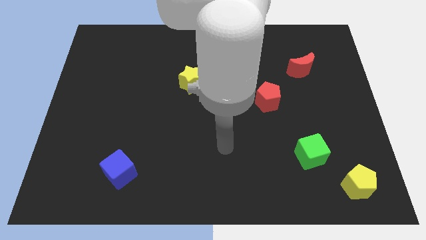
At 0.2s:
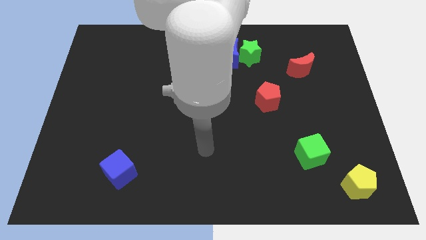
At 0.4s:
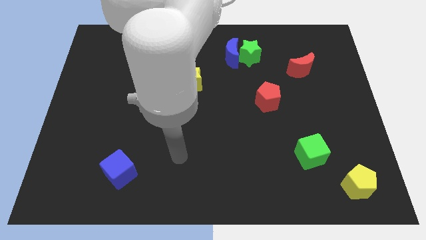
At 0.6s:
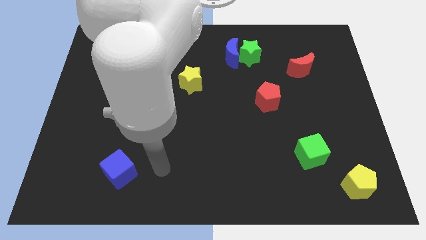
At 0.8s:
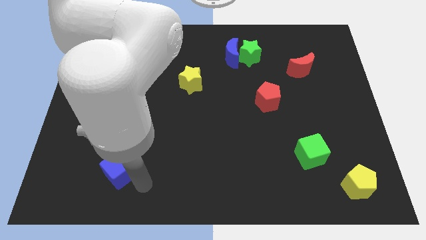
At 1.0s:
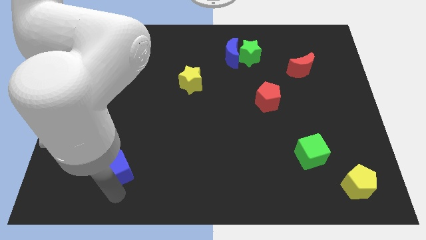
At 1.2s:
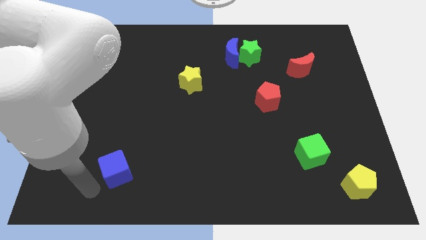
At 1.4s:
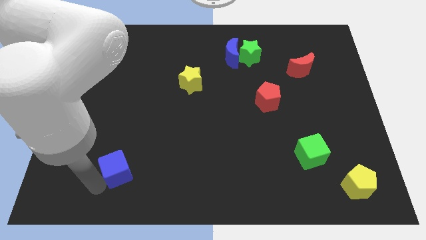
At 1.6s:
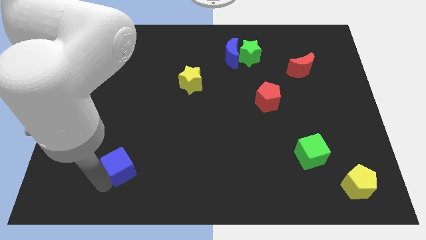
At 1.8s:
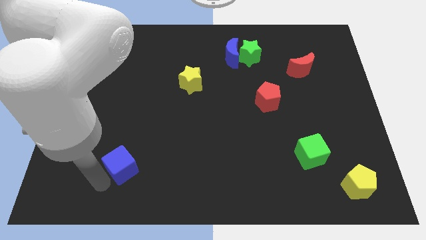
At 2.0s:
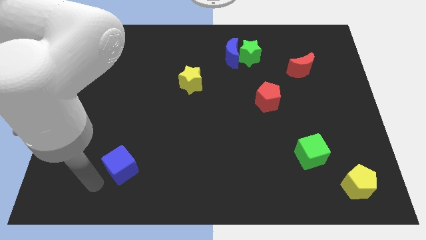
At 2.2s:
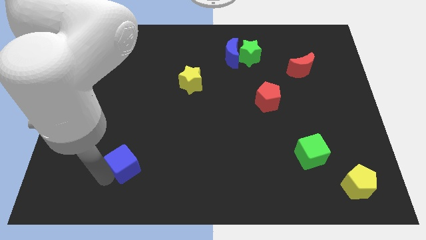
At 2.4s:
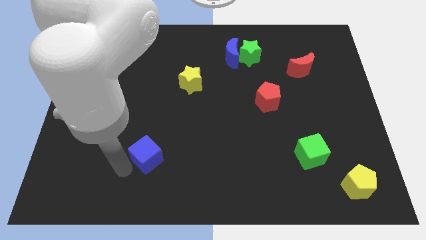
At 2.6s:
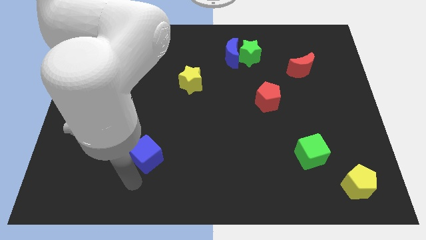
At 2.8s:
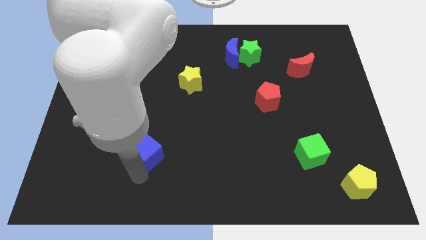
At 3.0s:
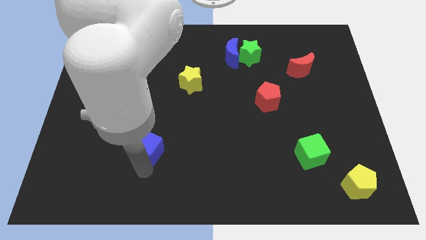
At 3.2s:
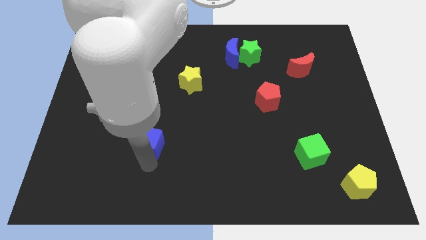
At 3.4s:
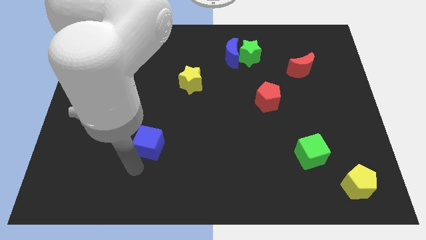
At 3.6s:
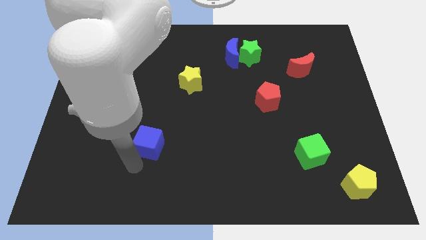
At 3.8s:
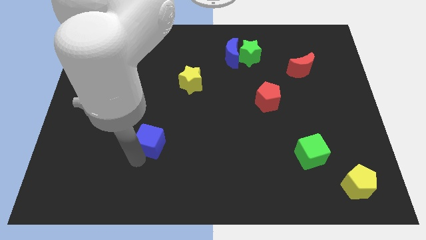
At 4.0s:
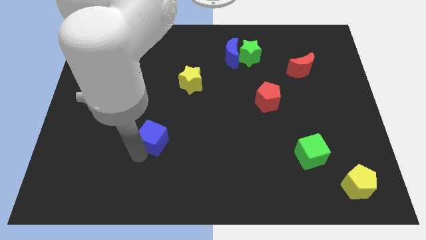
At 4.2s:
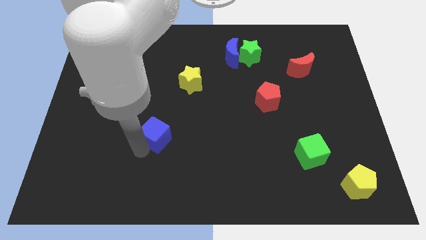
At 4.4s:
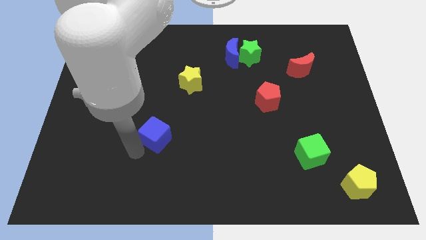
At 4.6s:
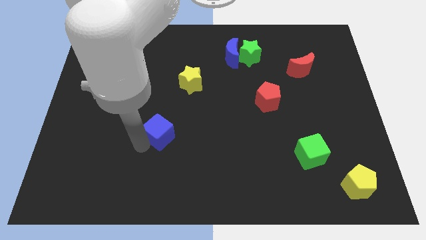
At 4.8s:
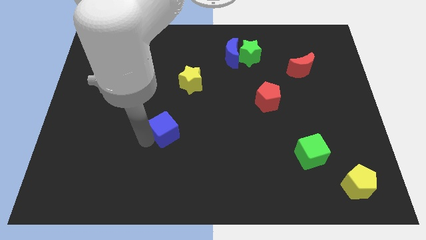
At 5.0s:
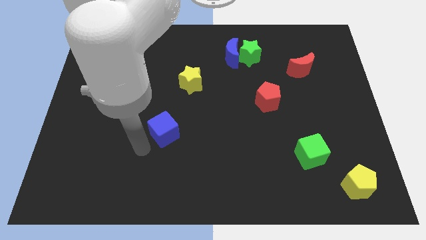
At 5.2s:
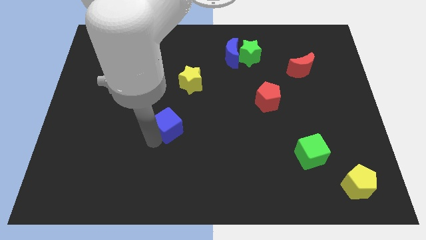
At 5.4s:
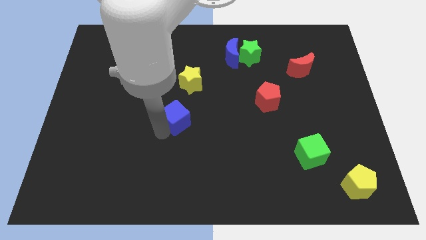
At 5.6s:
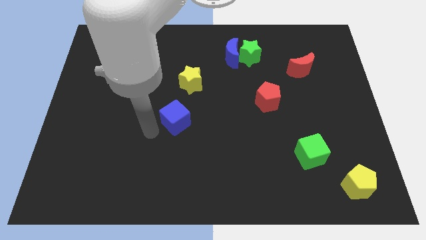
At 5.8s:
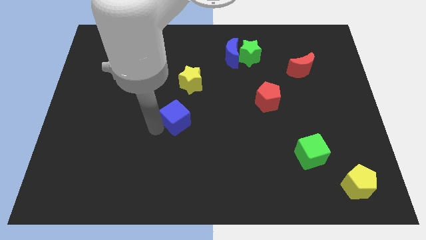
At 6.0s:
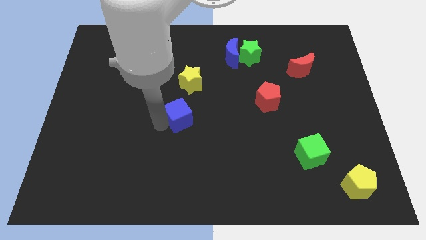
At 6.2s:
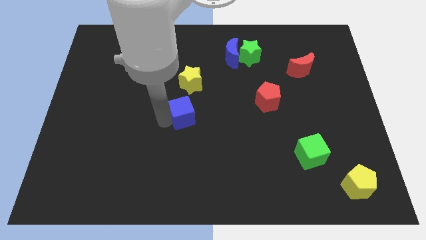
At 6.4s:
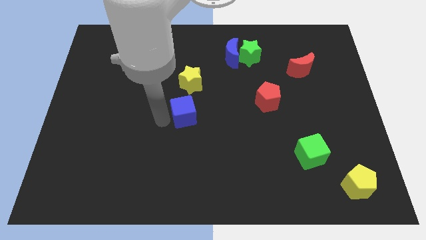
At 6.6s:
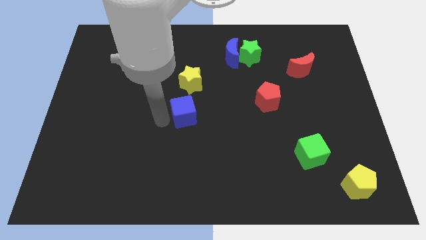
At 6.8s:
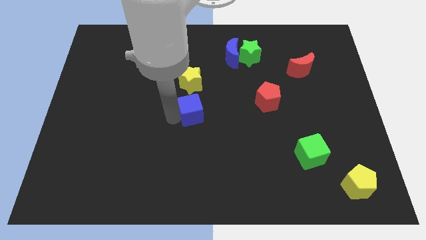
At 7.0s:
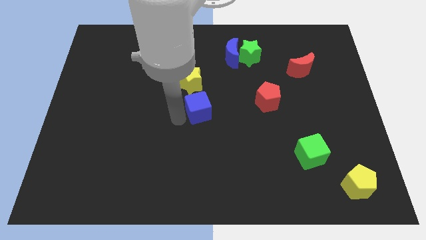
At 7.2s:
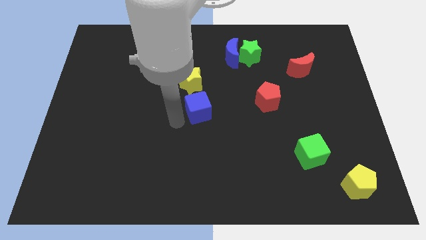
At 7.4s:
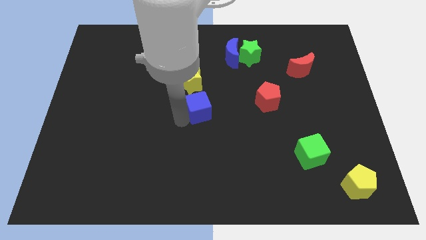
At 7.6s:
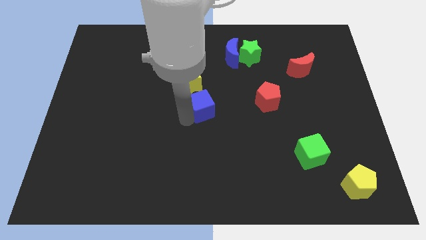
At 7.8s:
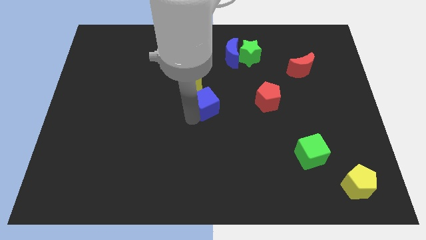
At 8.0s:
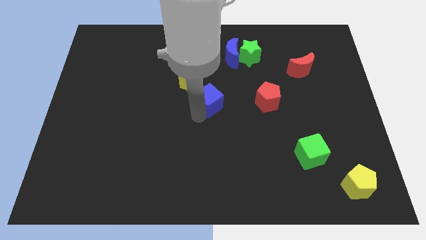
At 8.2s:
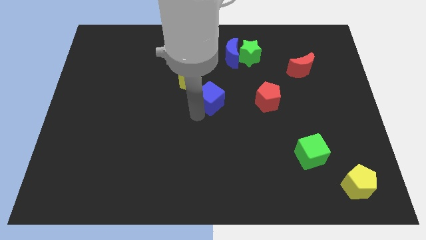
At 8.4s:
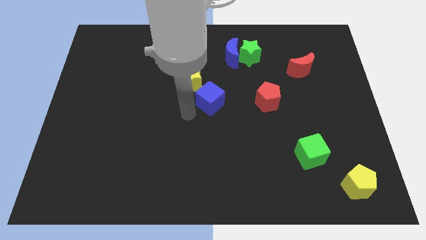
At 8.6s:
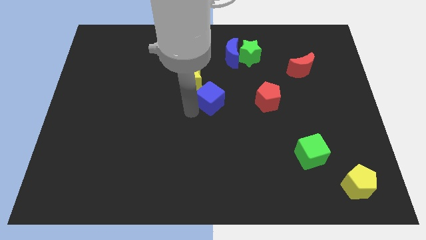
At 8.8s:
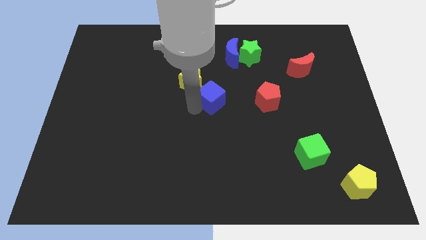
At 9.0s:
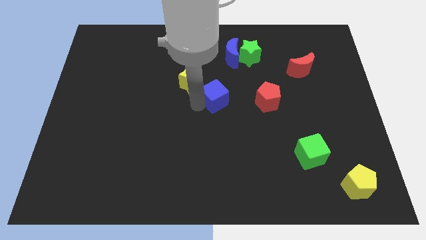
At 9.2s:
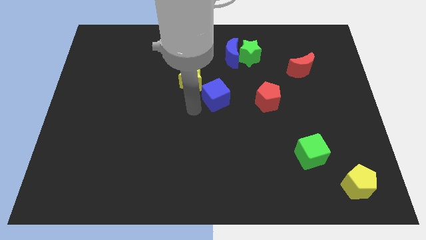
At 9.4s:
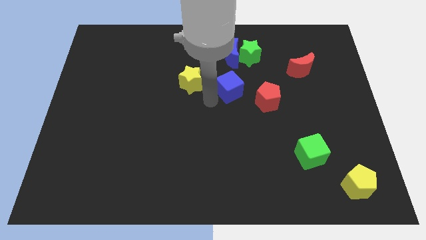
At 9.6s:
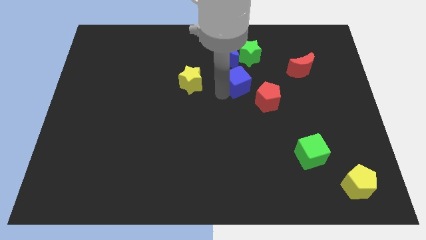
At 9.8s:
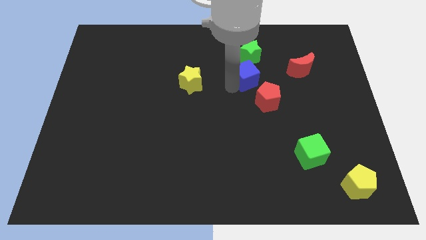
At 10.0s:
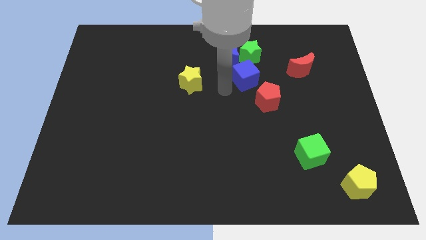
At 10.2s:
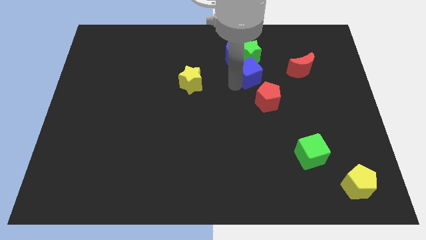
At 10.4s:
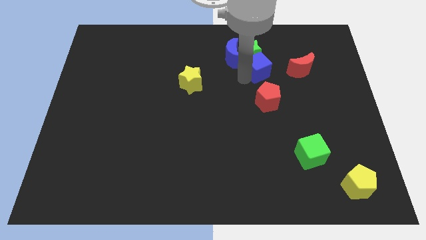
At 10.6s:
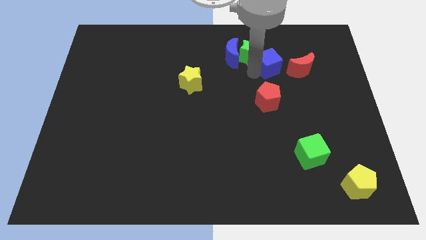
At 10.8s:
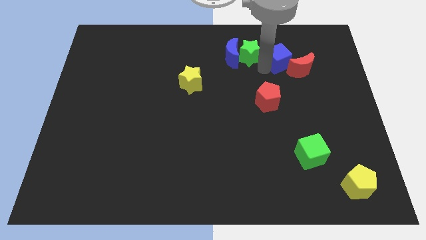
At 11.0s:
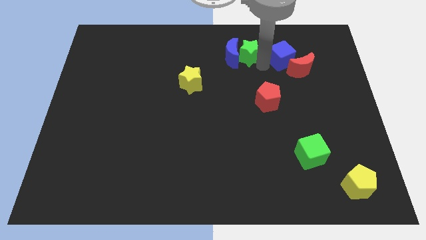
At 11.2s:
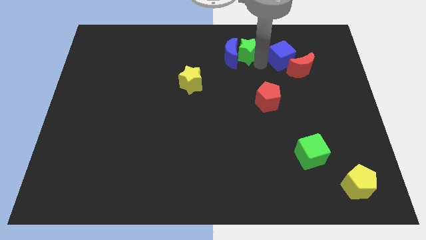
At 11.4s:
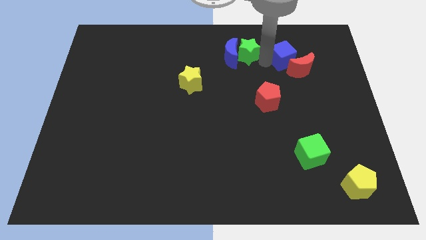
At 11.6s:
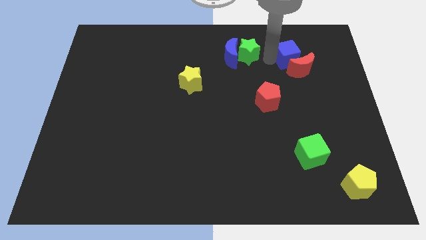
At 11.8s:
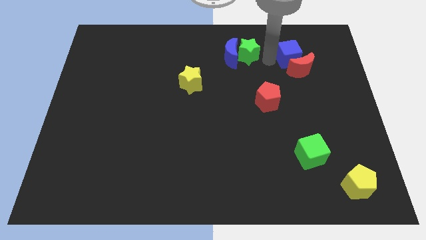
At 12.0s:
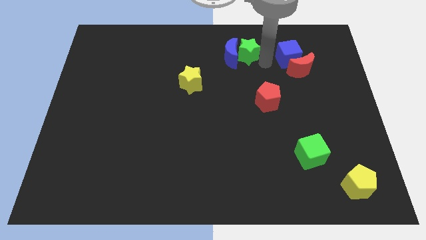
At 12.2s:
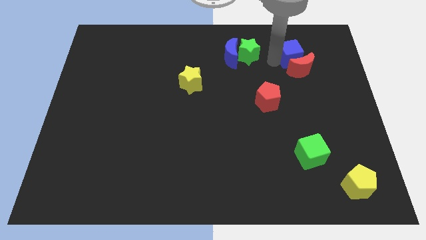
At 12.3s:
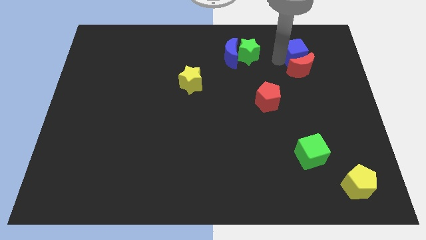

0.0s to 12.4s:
put the blue cube to the top right side of the red moon

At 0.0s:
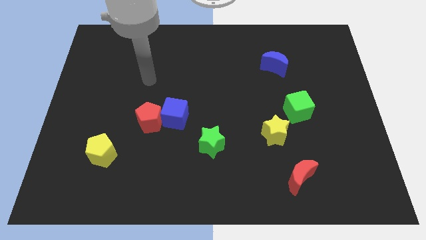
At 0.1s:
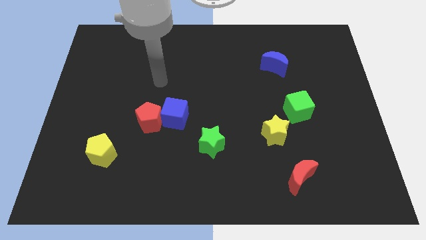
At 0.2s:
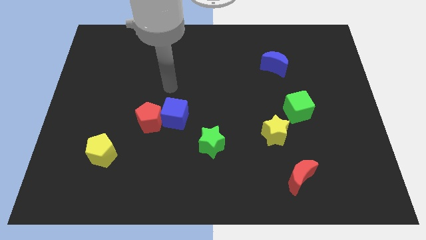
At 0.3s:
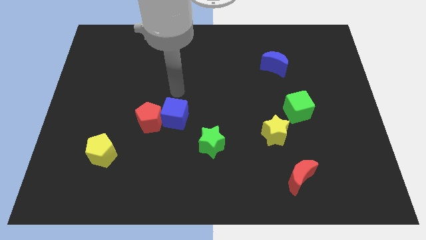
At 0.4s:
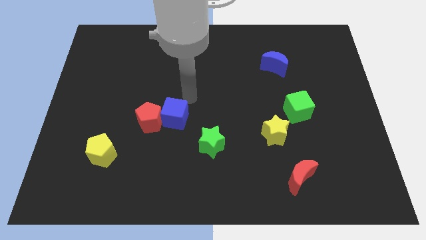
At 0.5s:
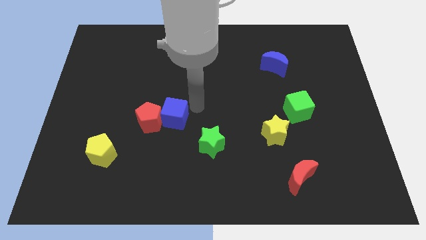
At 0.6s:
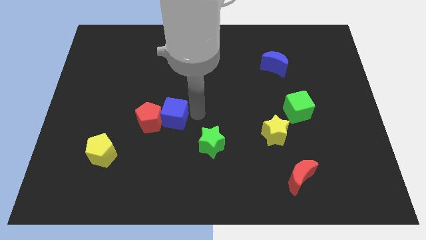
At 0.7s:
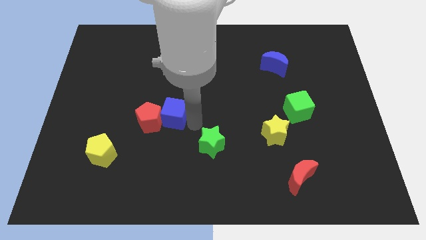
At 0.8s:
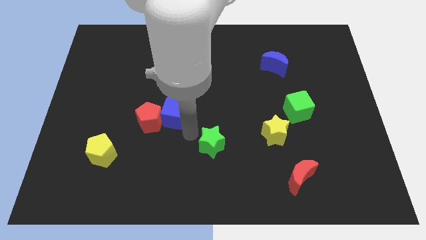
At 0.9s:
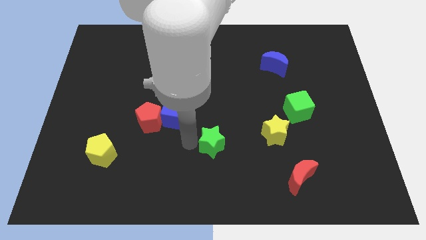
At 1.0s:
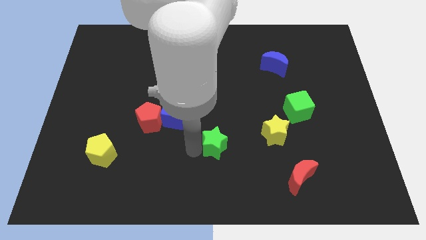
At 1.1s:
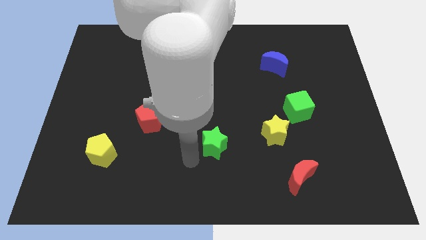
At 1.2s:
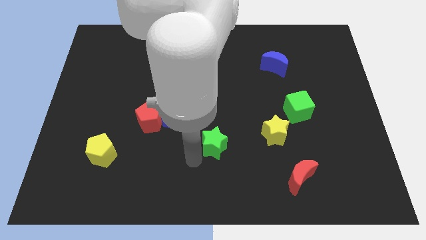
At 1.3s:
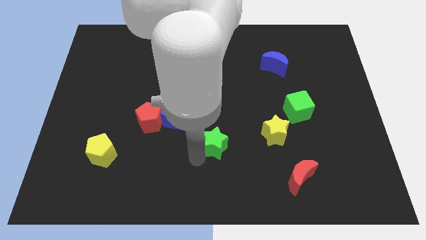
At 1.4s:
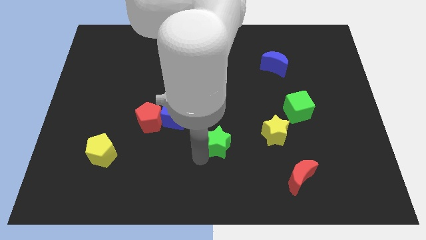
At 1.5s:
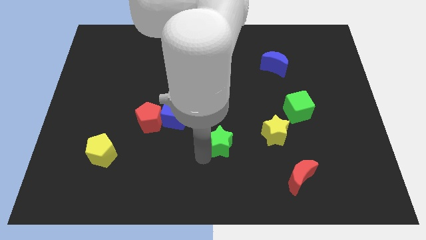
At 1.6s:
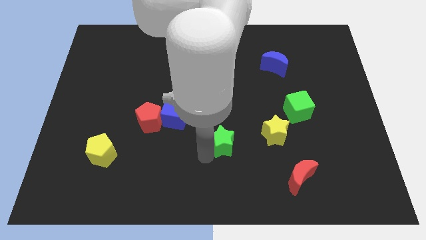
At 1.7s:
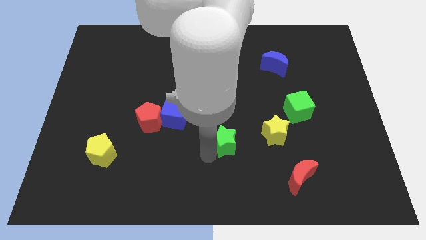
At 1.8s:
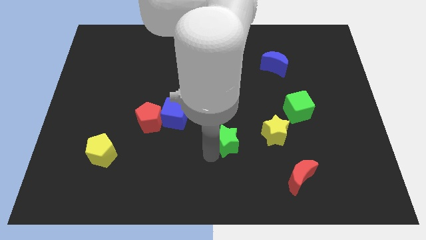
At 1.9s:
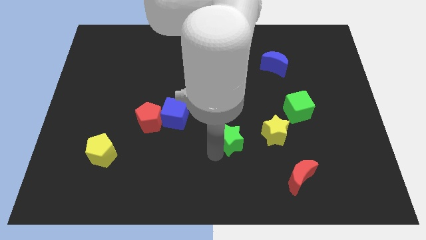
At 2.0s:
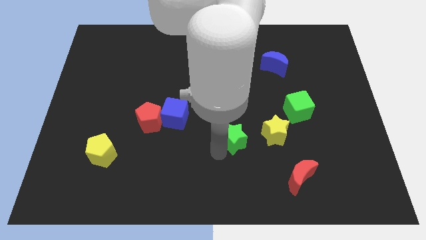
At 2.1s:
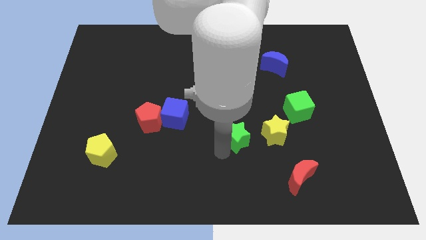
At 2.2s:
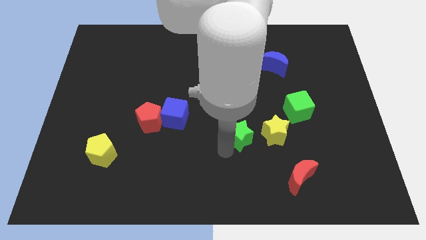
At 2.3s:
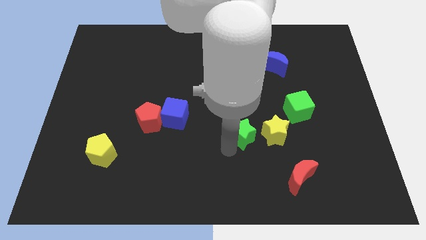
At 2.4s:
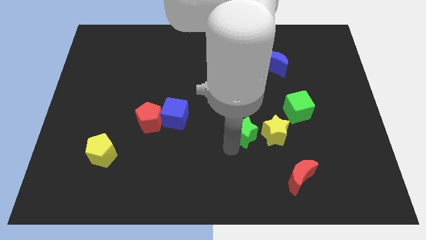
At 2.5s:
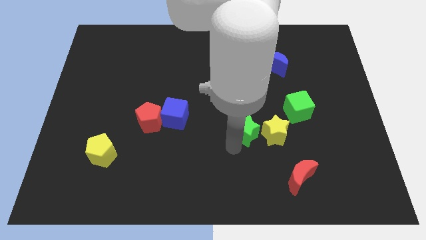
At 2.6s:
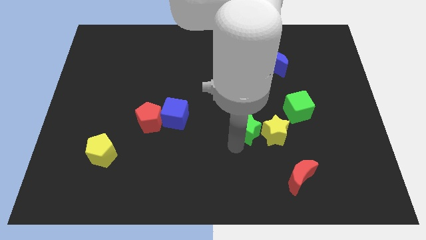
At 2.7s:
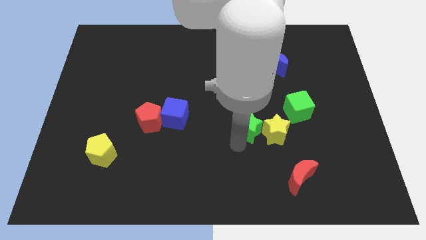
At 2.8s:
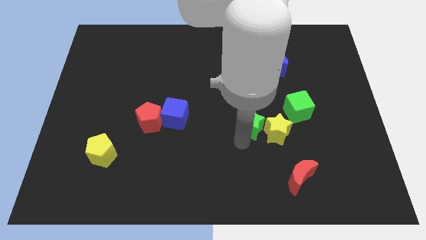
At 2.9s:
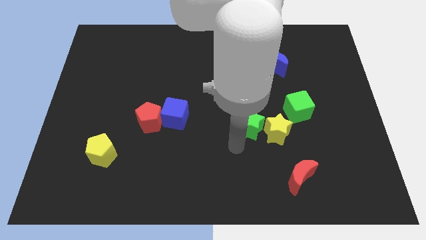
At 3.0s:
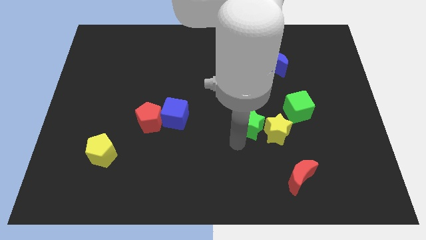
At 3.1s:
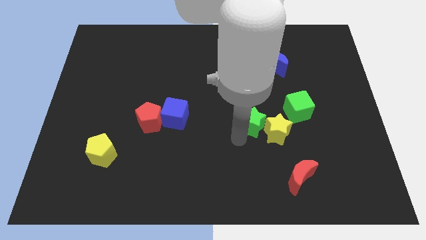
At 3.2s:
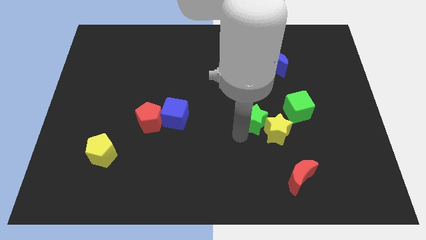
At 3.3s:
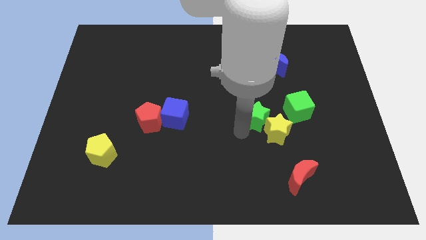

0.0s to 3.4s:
move the green star above the yellow star
